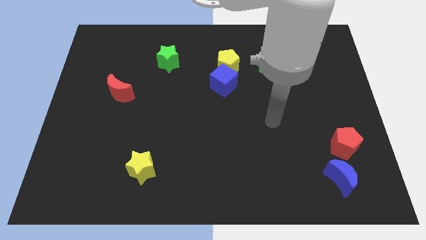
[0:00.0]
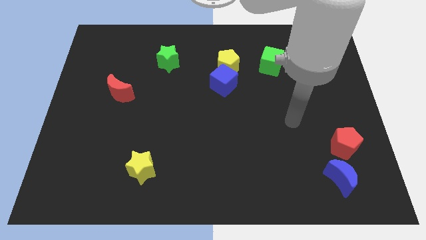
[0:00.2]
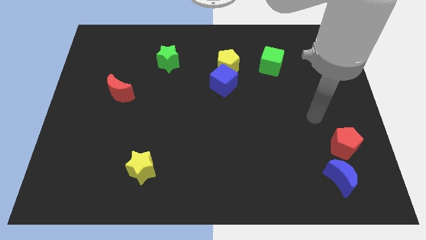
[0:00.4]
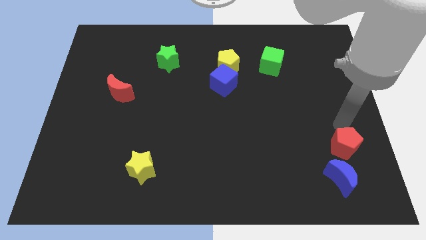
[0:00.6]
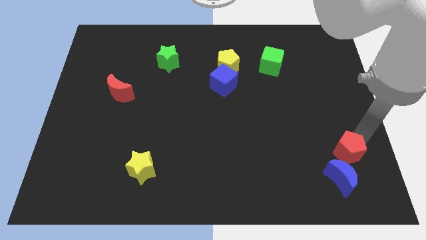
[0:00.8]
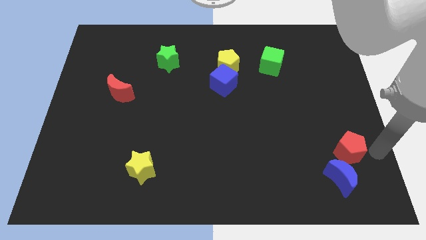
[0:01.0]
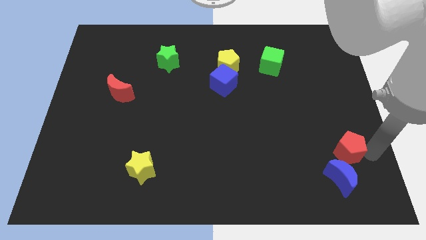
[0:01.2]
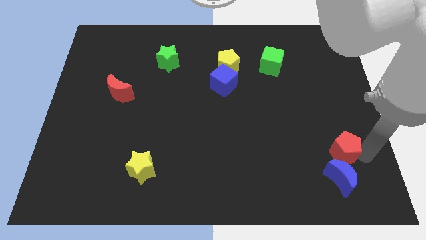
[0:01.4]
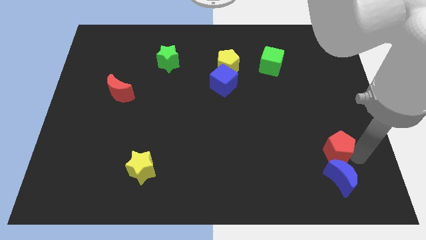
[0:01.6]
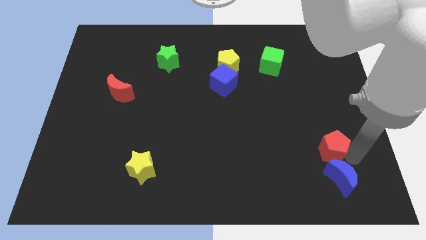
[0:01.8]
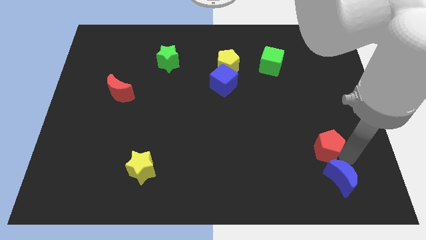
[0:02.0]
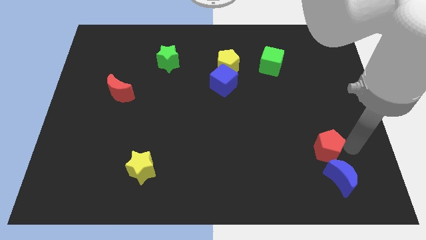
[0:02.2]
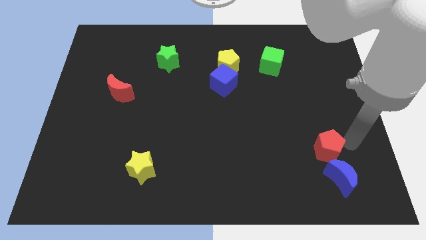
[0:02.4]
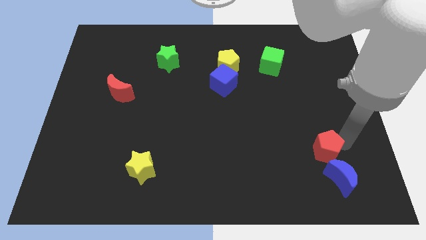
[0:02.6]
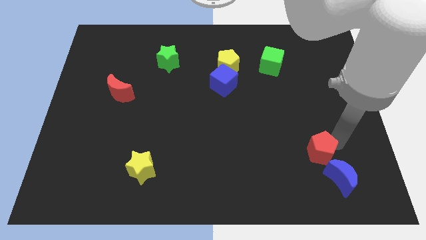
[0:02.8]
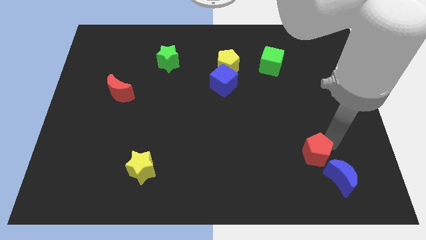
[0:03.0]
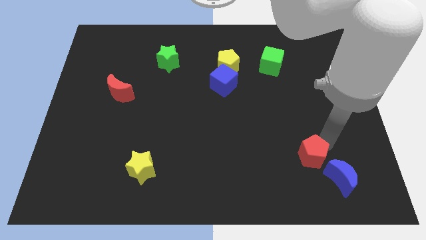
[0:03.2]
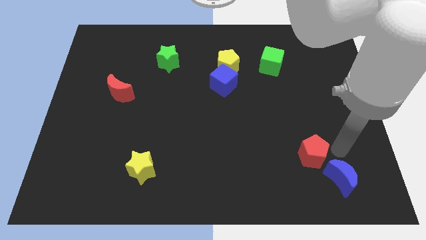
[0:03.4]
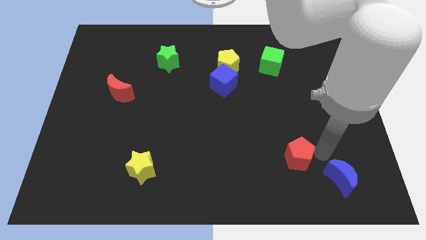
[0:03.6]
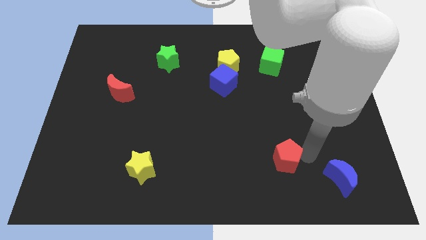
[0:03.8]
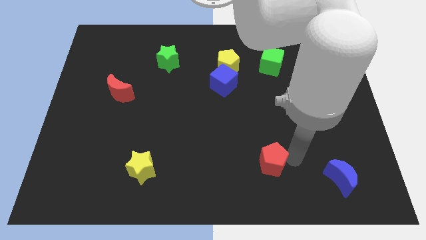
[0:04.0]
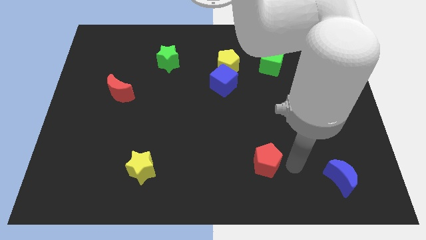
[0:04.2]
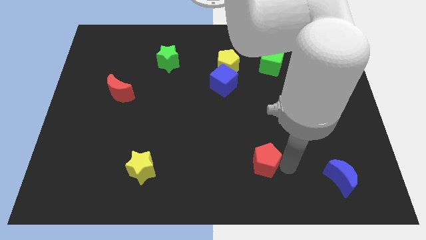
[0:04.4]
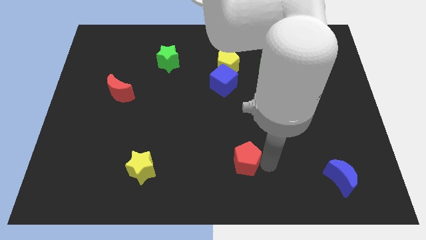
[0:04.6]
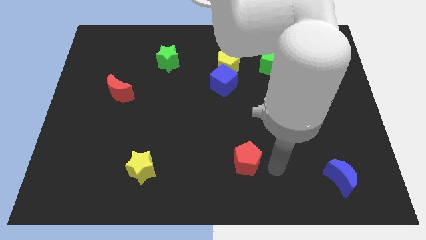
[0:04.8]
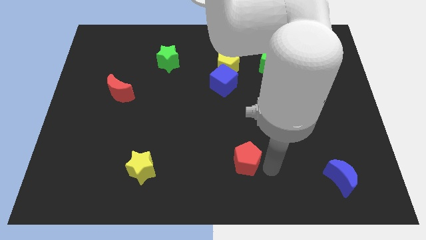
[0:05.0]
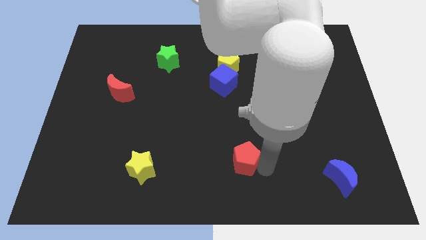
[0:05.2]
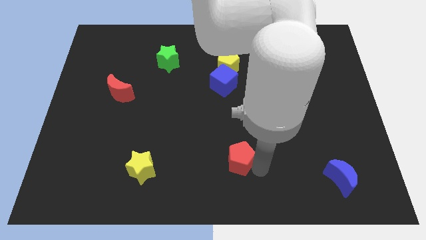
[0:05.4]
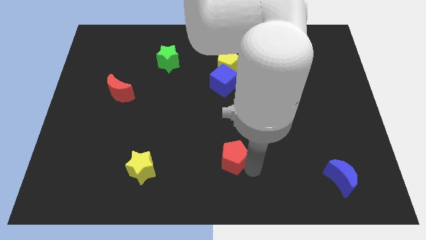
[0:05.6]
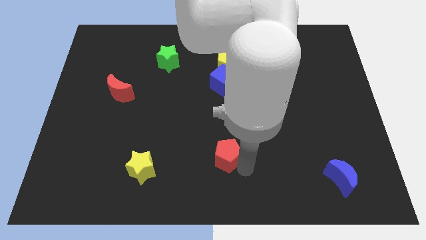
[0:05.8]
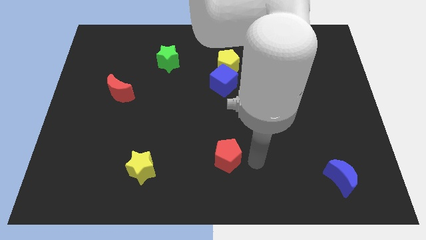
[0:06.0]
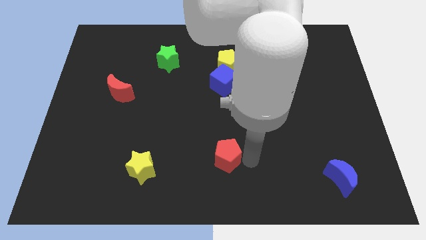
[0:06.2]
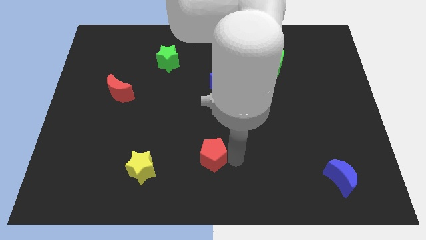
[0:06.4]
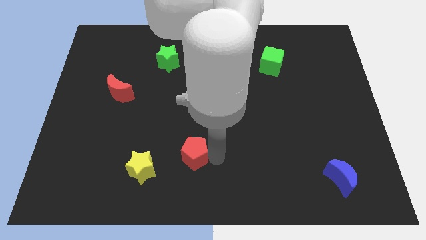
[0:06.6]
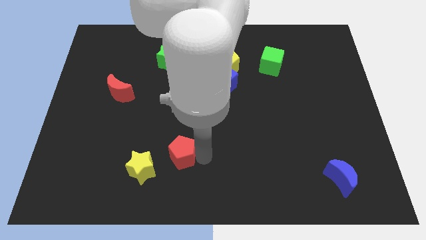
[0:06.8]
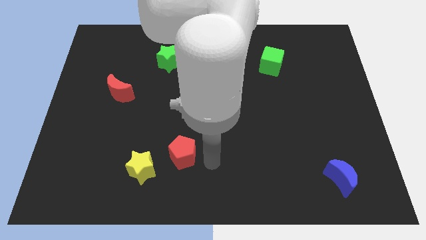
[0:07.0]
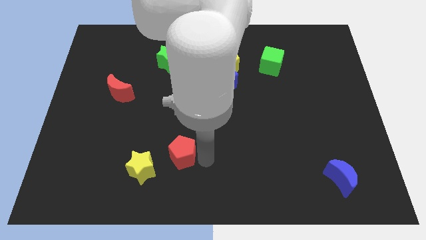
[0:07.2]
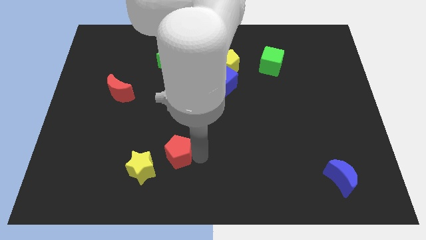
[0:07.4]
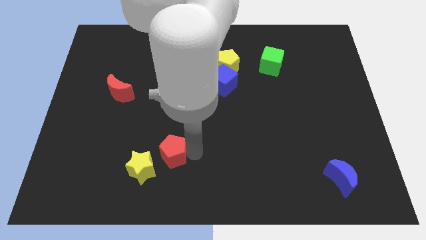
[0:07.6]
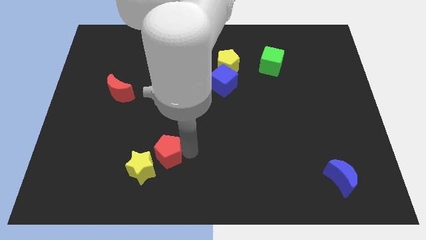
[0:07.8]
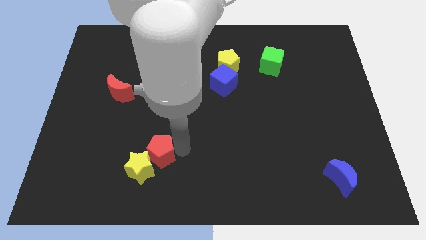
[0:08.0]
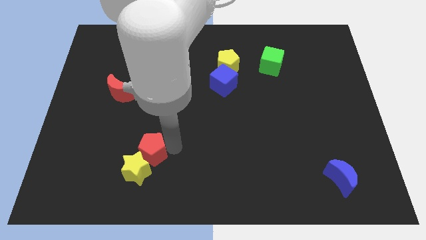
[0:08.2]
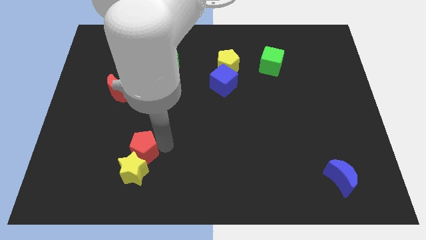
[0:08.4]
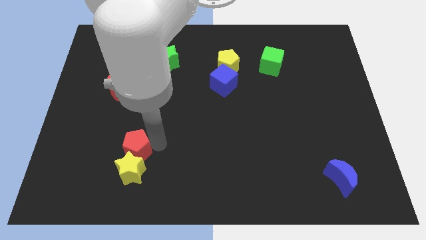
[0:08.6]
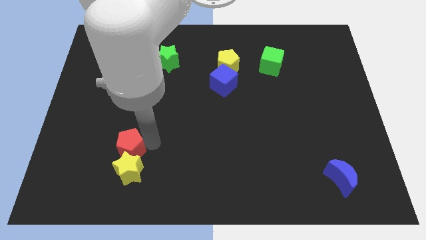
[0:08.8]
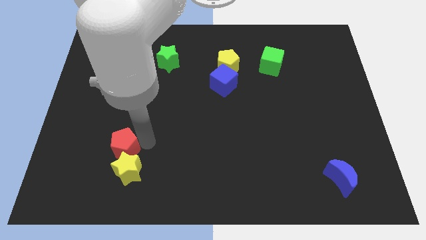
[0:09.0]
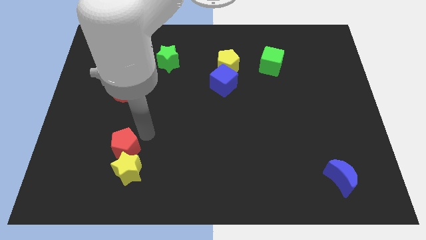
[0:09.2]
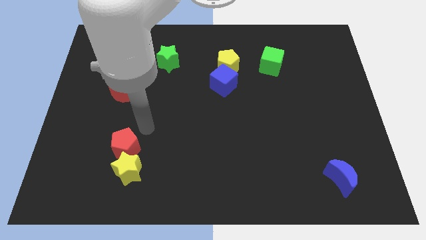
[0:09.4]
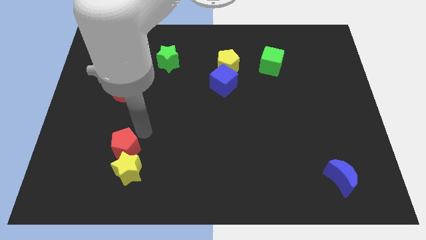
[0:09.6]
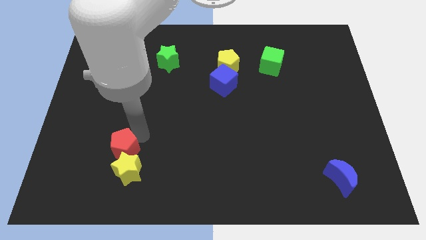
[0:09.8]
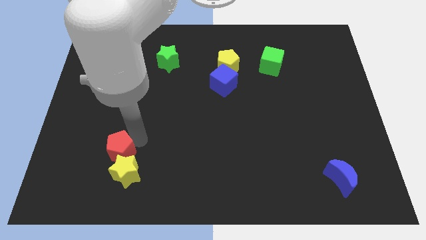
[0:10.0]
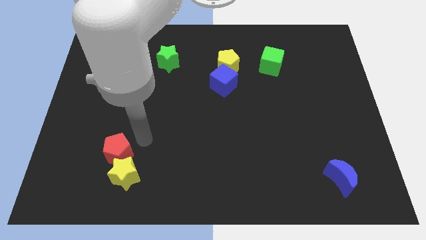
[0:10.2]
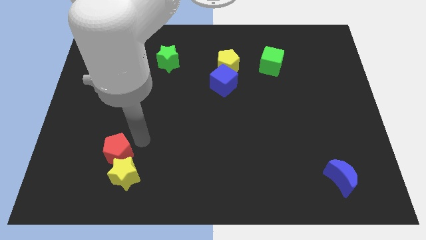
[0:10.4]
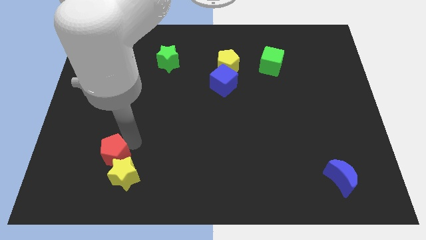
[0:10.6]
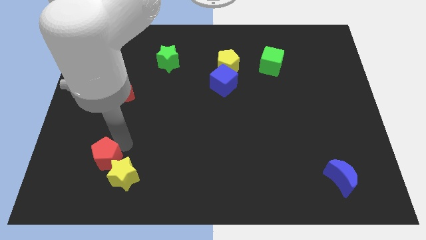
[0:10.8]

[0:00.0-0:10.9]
move the red pentagon left of the yellow star

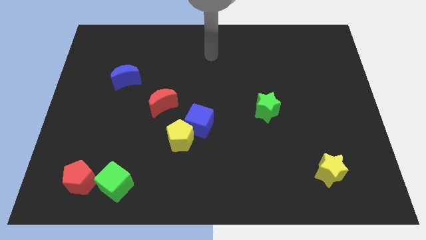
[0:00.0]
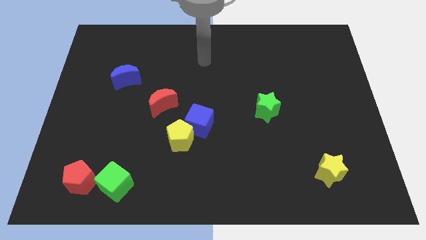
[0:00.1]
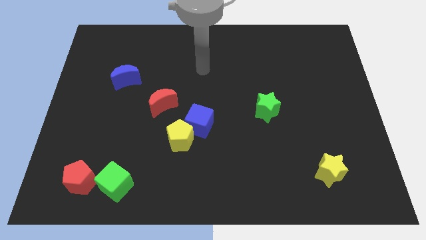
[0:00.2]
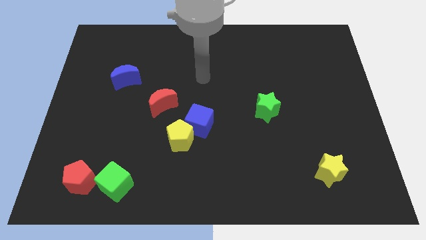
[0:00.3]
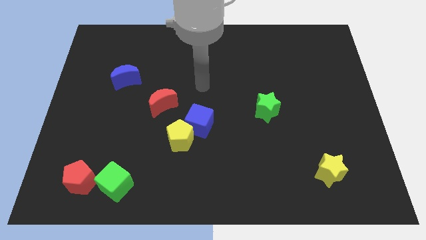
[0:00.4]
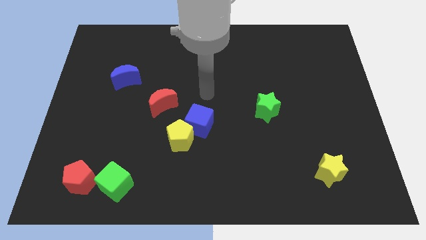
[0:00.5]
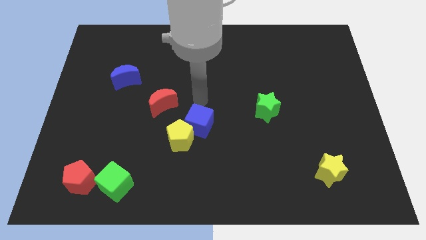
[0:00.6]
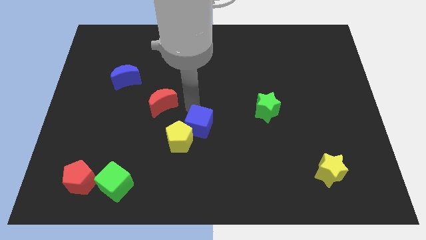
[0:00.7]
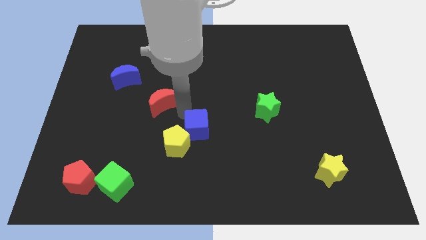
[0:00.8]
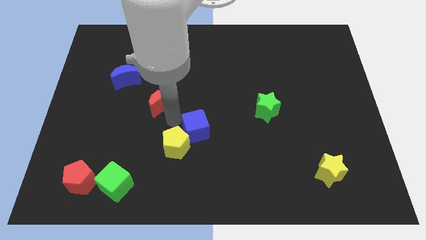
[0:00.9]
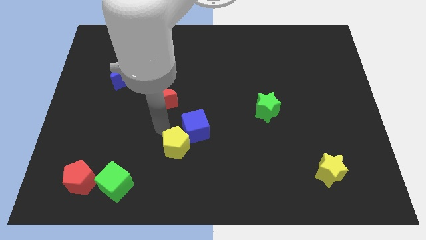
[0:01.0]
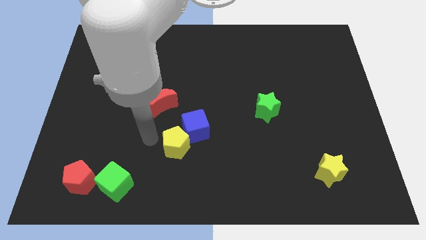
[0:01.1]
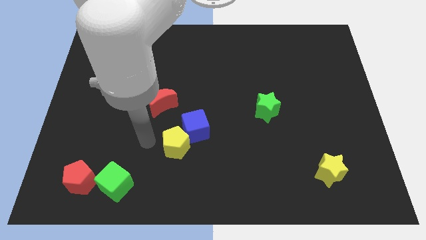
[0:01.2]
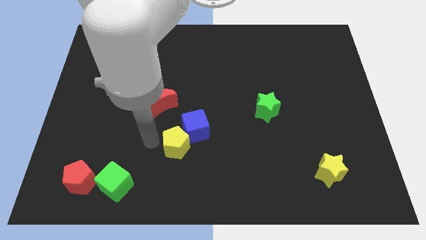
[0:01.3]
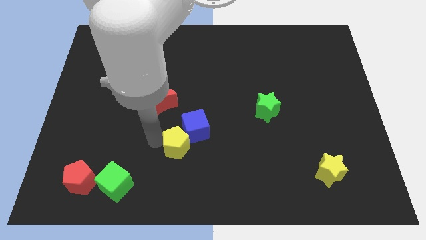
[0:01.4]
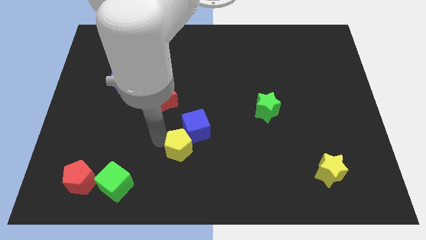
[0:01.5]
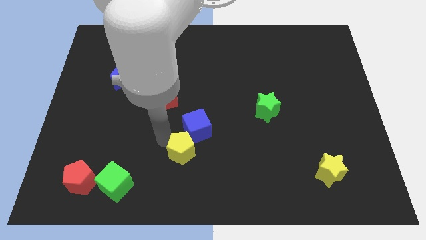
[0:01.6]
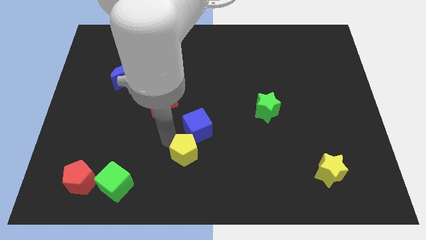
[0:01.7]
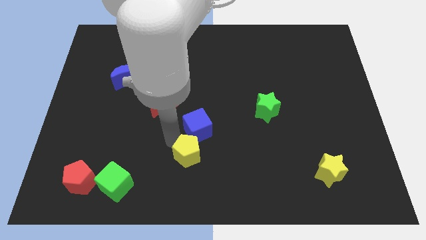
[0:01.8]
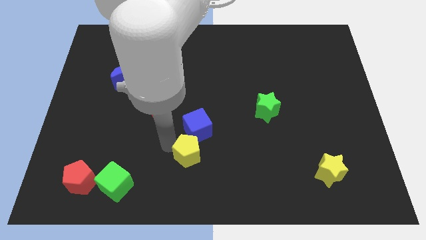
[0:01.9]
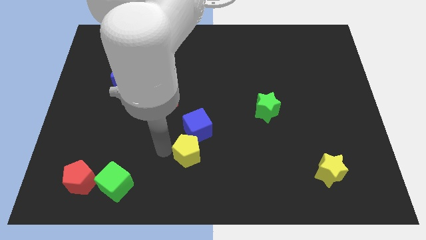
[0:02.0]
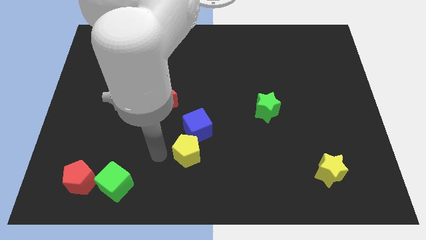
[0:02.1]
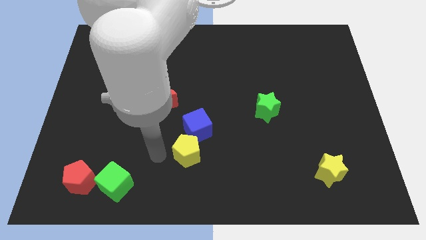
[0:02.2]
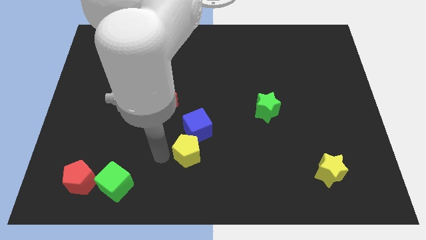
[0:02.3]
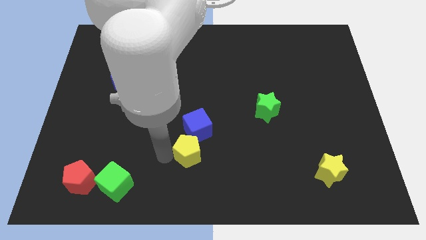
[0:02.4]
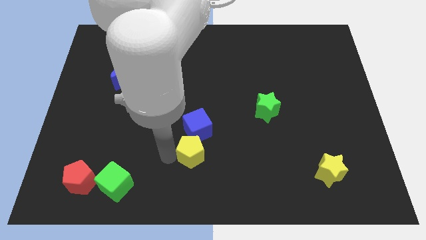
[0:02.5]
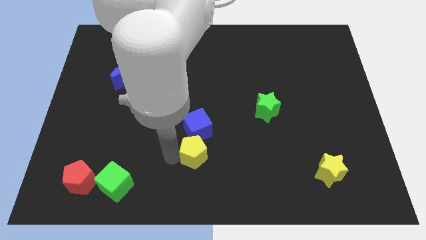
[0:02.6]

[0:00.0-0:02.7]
slide the yellow pentagon diagonally down and to the right of the blue cube
